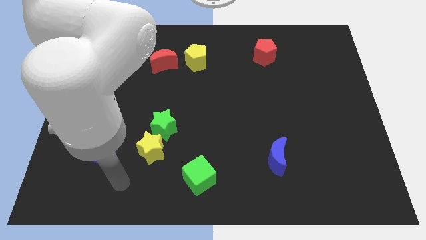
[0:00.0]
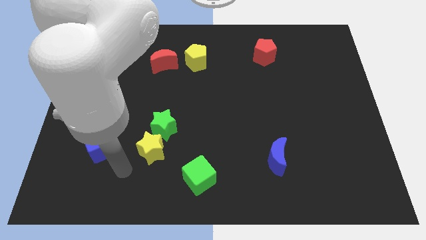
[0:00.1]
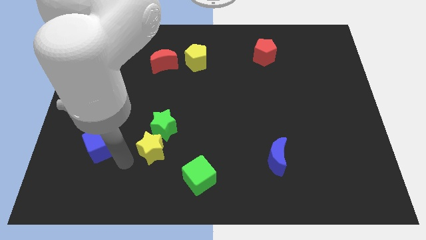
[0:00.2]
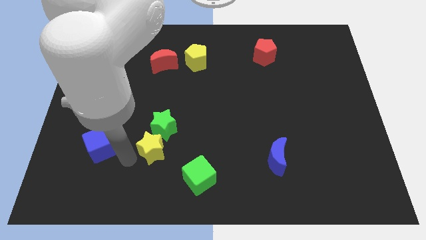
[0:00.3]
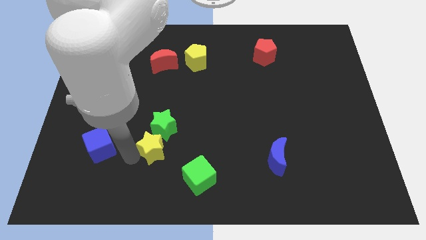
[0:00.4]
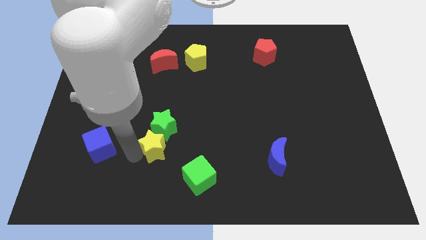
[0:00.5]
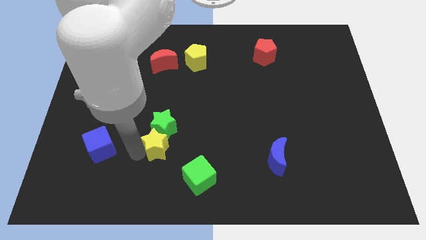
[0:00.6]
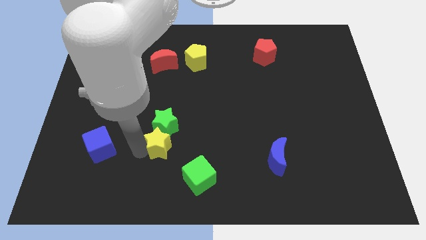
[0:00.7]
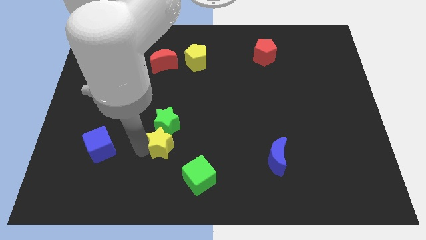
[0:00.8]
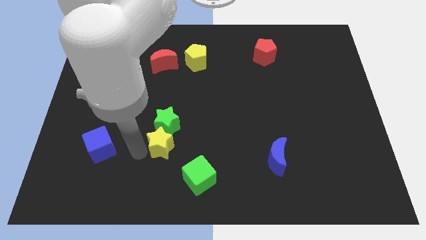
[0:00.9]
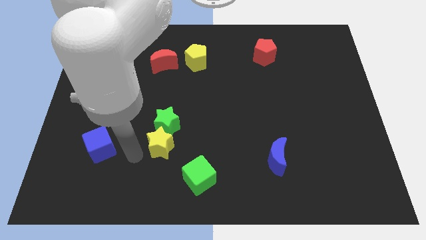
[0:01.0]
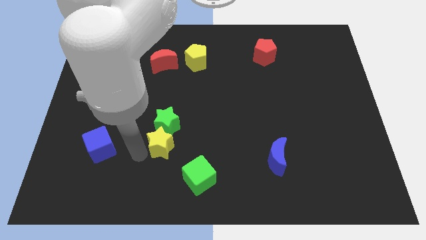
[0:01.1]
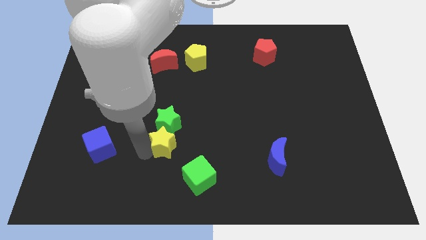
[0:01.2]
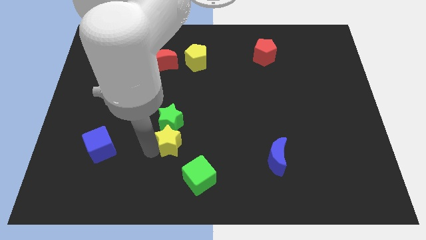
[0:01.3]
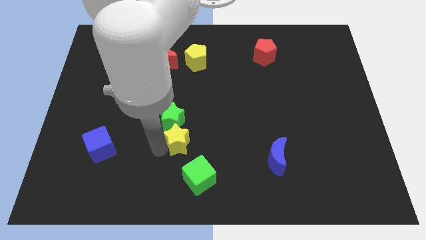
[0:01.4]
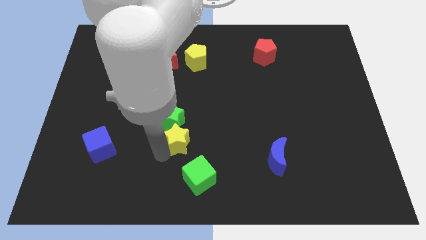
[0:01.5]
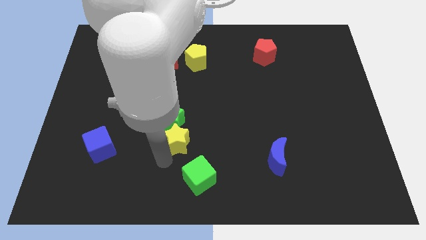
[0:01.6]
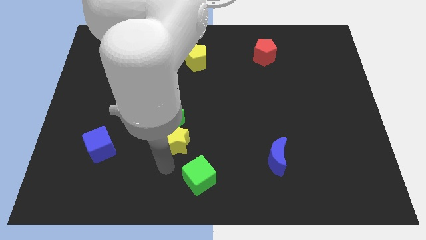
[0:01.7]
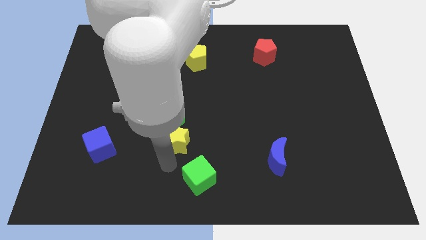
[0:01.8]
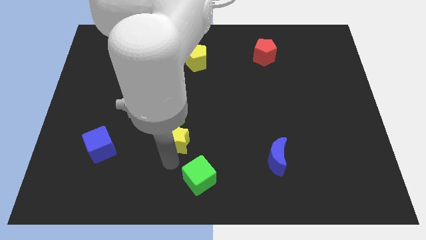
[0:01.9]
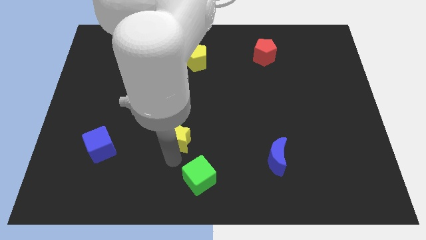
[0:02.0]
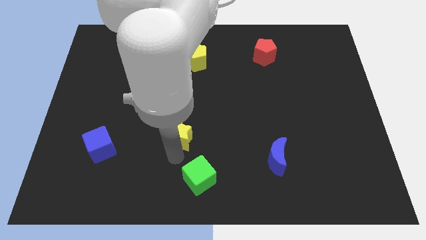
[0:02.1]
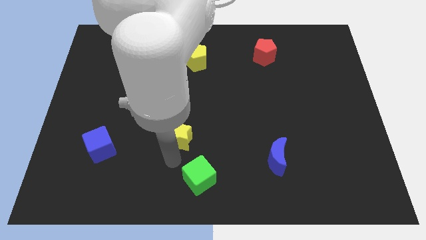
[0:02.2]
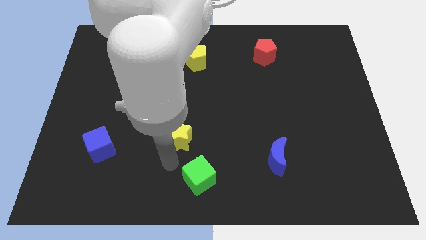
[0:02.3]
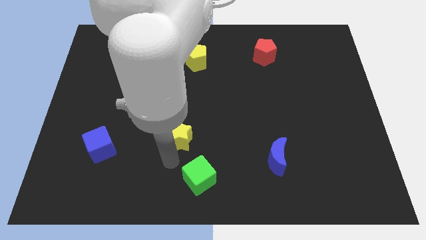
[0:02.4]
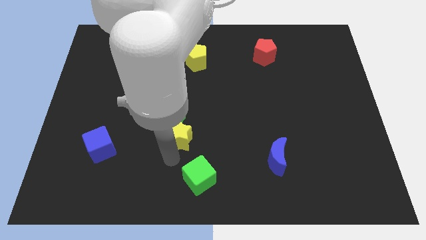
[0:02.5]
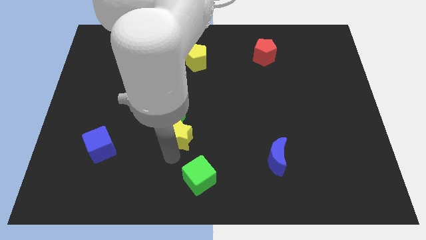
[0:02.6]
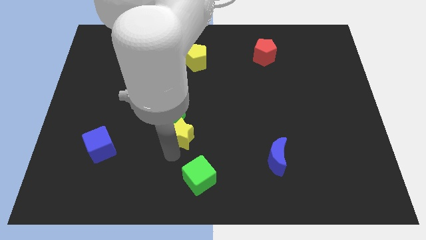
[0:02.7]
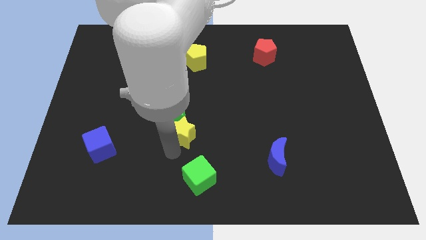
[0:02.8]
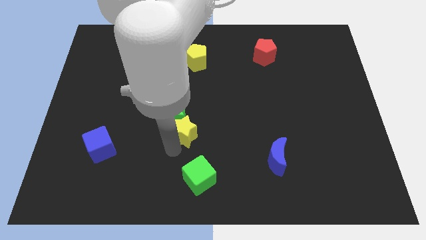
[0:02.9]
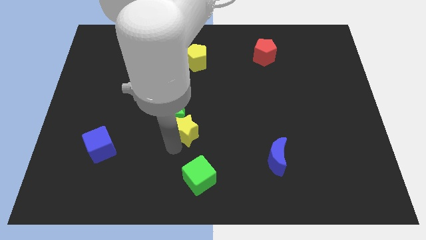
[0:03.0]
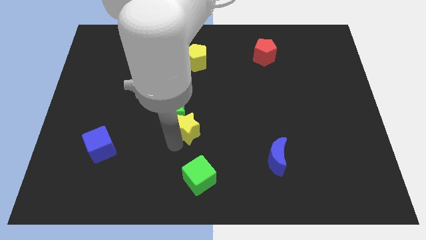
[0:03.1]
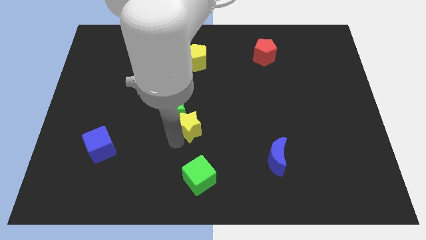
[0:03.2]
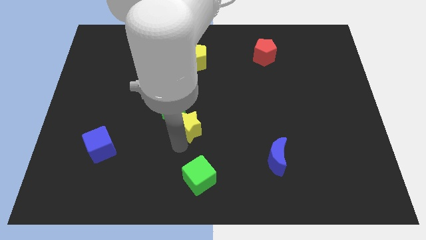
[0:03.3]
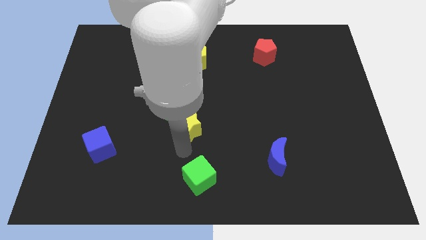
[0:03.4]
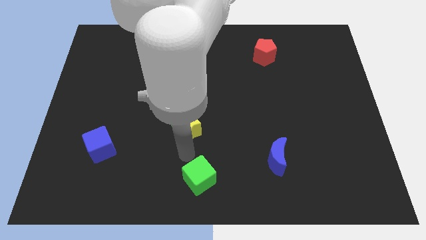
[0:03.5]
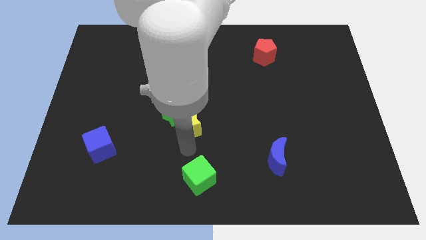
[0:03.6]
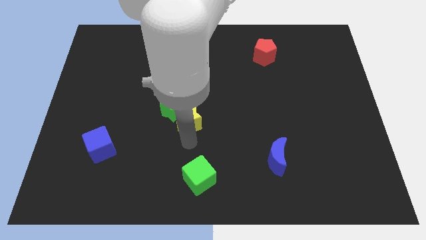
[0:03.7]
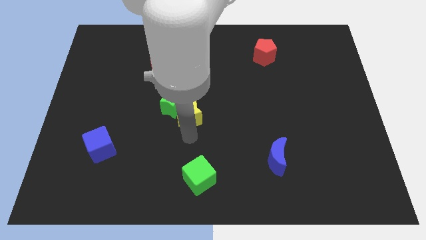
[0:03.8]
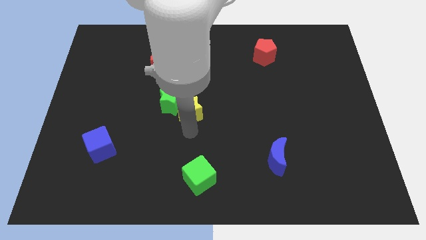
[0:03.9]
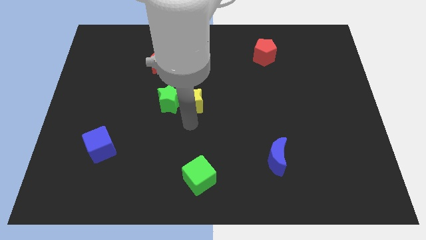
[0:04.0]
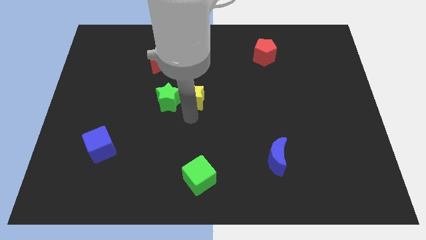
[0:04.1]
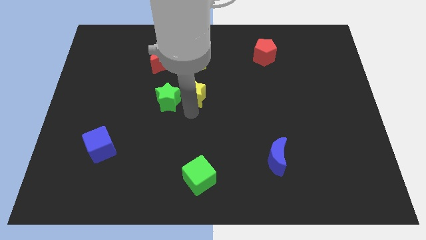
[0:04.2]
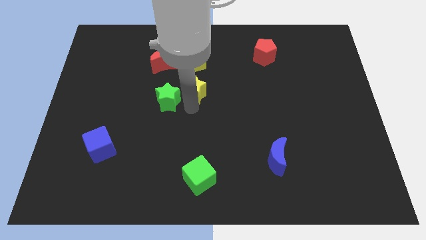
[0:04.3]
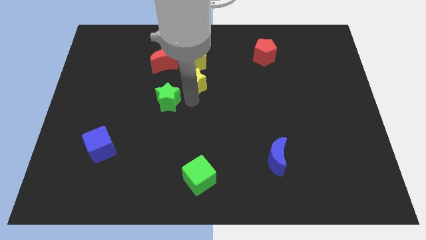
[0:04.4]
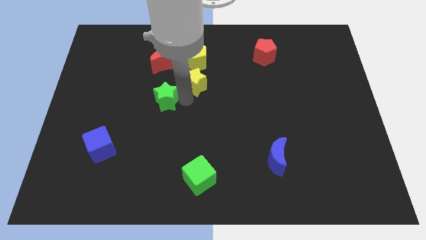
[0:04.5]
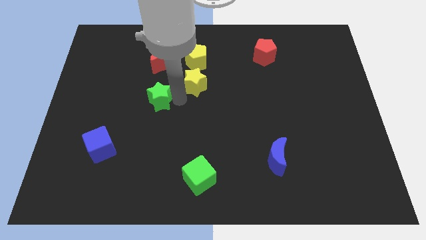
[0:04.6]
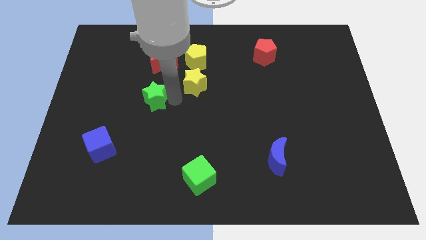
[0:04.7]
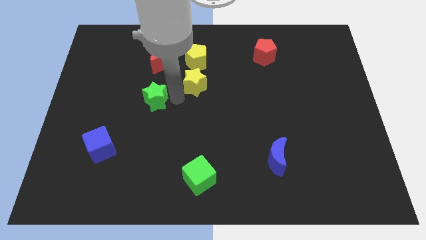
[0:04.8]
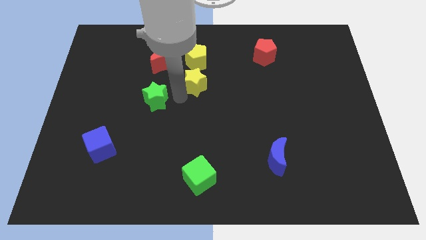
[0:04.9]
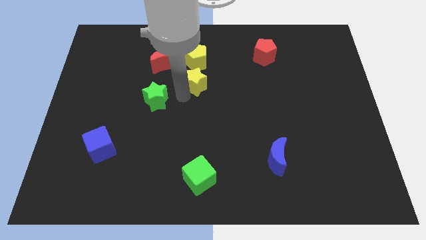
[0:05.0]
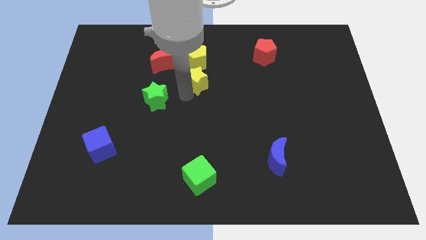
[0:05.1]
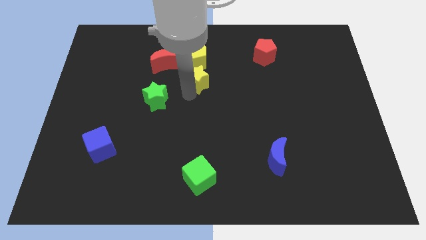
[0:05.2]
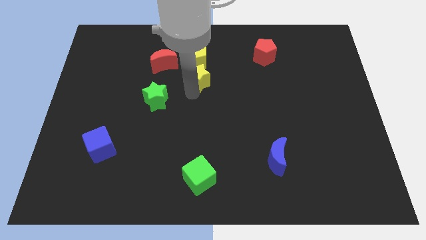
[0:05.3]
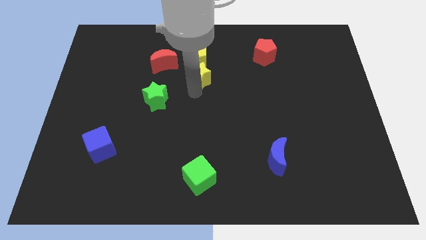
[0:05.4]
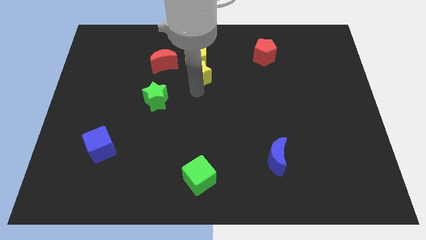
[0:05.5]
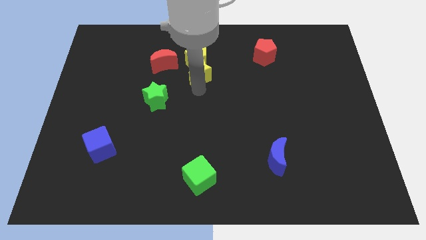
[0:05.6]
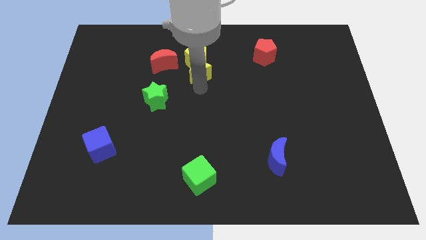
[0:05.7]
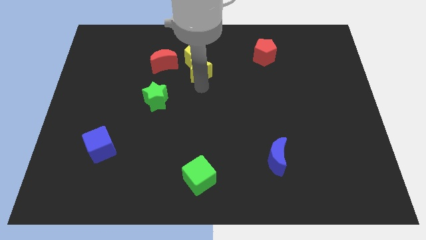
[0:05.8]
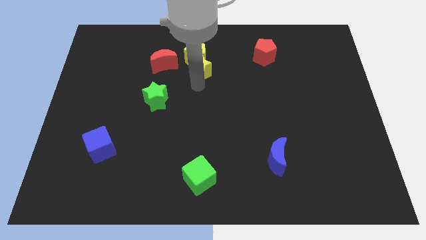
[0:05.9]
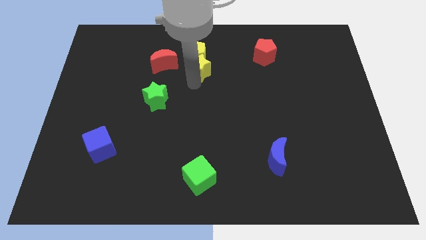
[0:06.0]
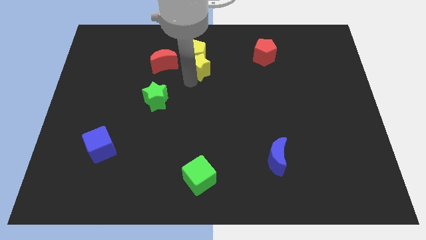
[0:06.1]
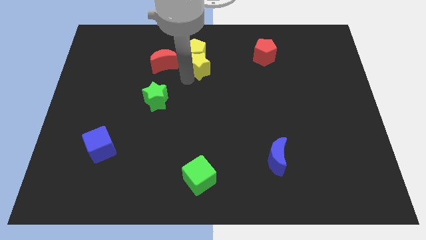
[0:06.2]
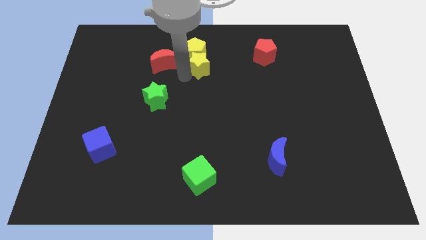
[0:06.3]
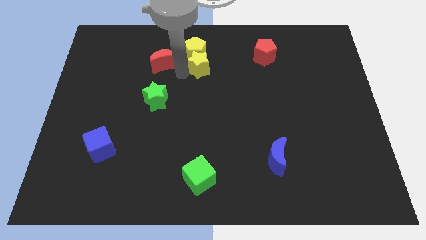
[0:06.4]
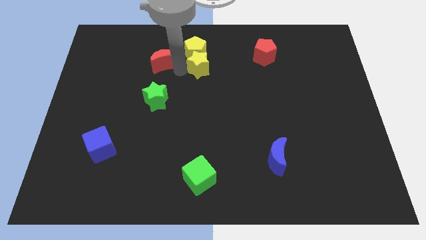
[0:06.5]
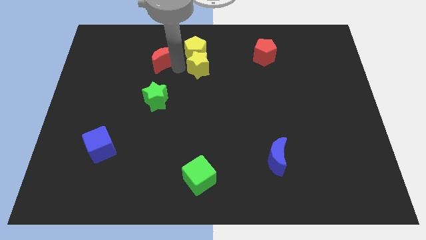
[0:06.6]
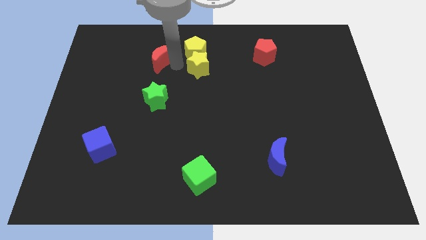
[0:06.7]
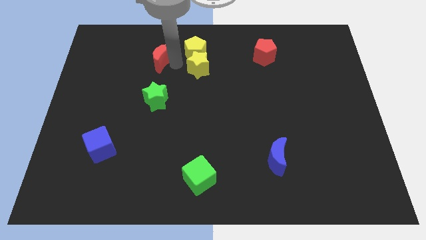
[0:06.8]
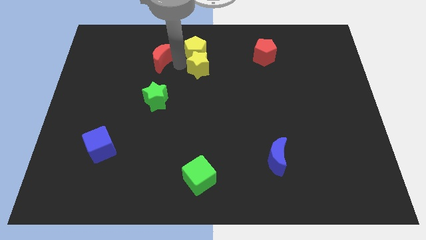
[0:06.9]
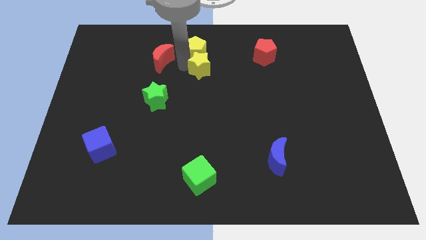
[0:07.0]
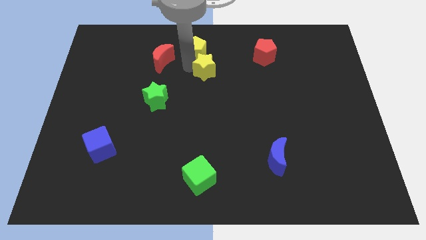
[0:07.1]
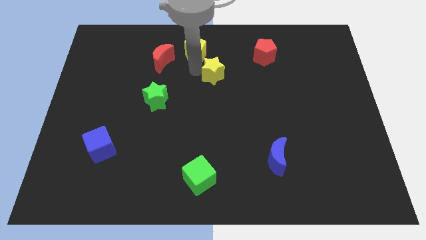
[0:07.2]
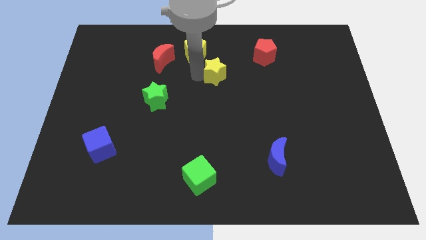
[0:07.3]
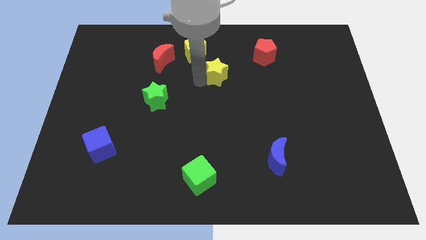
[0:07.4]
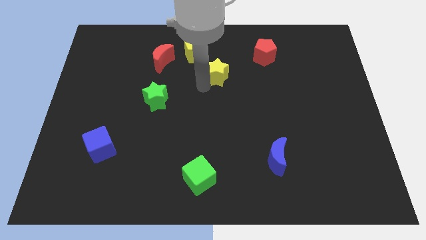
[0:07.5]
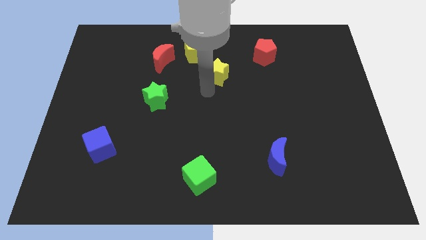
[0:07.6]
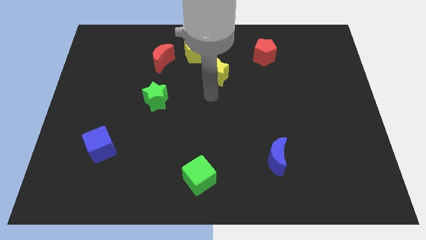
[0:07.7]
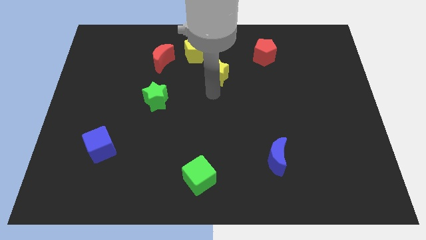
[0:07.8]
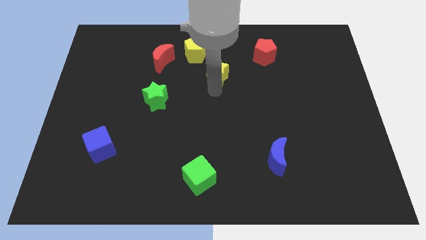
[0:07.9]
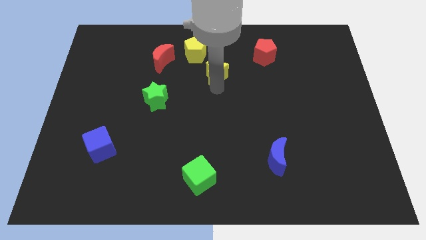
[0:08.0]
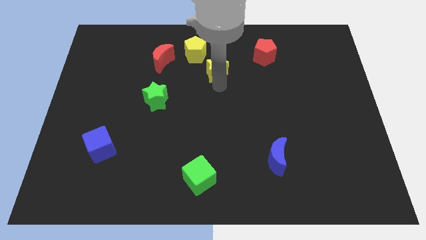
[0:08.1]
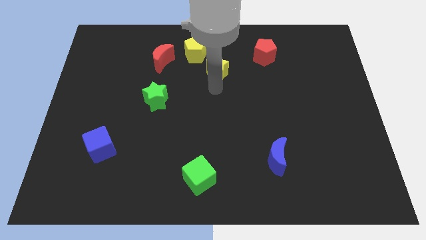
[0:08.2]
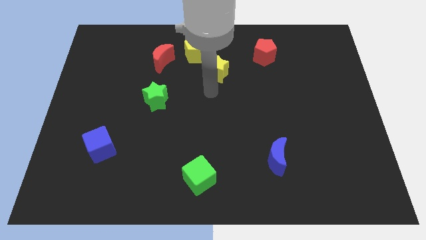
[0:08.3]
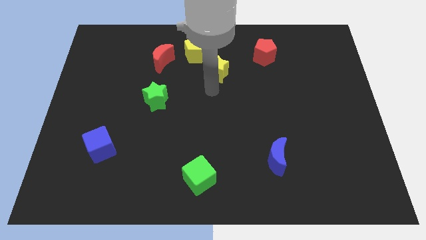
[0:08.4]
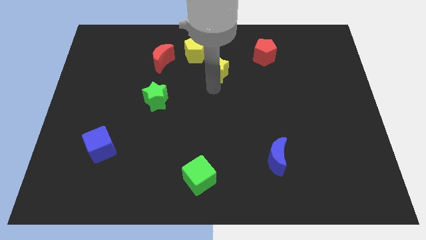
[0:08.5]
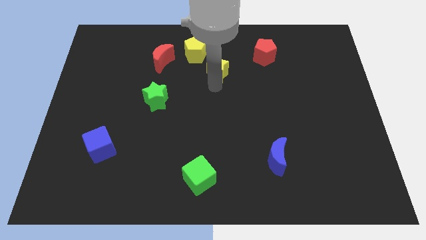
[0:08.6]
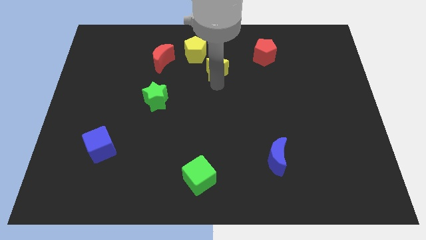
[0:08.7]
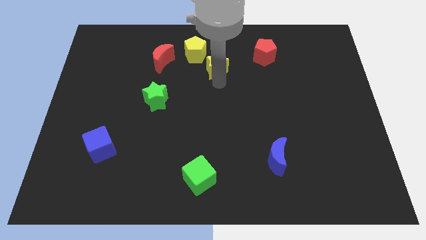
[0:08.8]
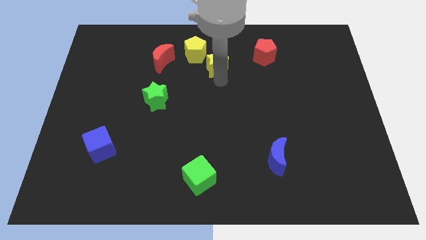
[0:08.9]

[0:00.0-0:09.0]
move the yellow star to the left of the red pentagon
